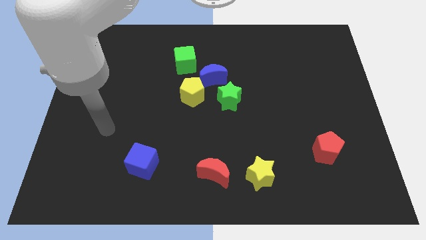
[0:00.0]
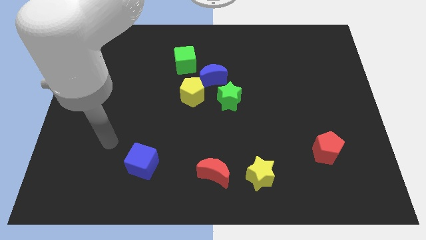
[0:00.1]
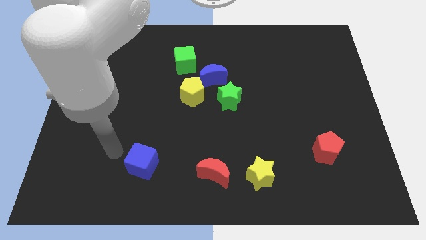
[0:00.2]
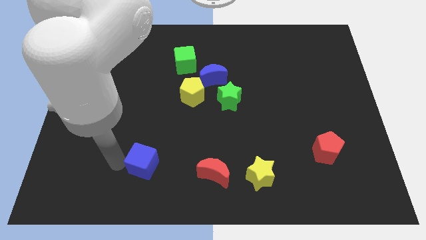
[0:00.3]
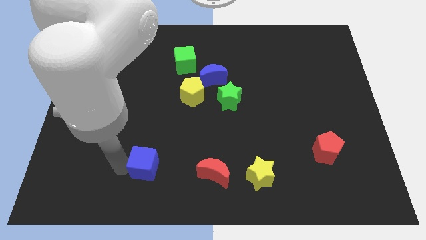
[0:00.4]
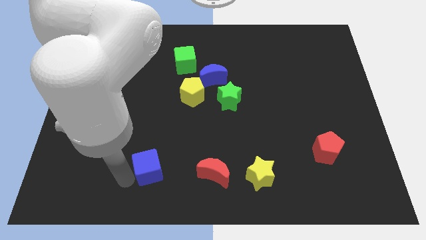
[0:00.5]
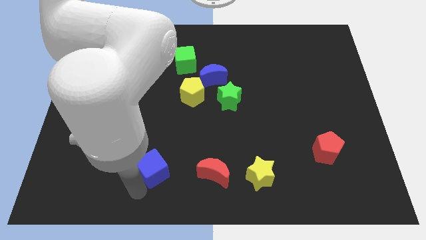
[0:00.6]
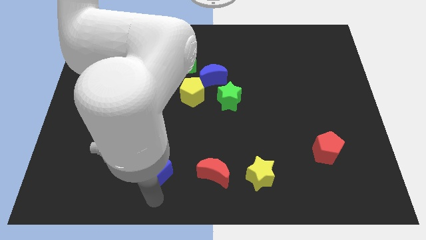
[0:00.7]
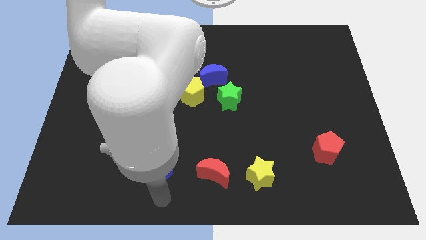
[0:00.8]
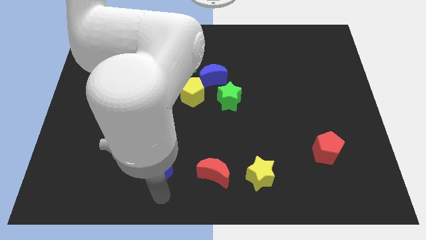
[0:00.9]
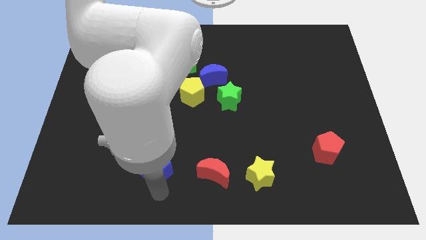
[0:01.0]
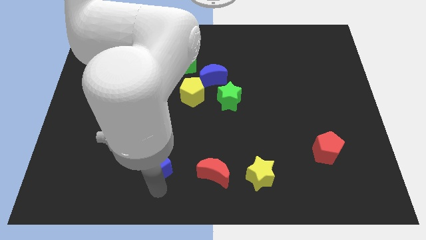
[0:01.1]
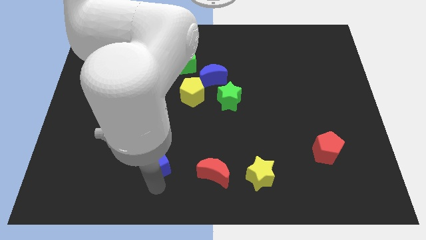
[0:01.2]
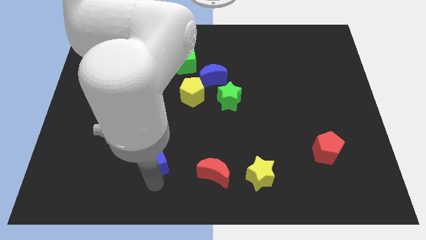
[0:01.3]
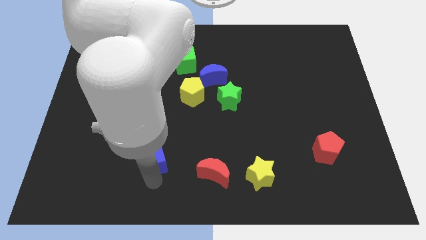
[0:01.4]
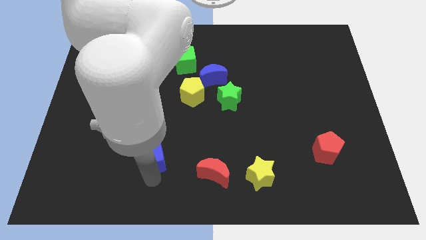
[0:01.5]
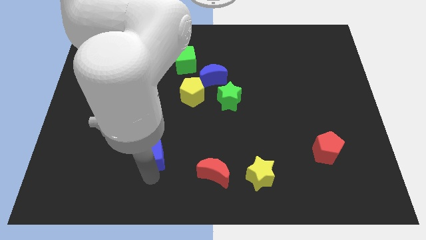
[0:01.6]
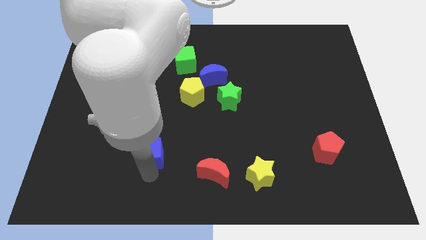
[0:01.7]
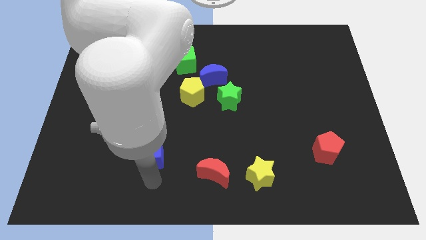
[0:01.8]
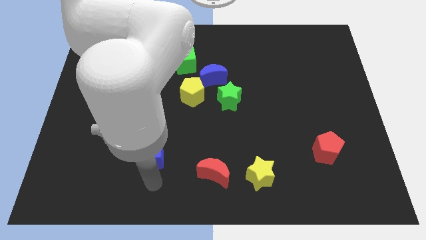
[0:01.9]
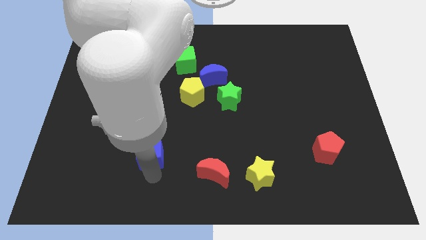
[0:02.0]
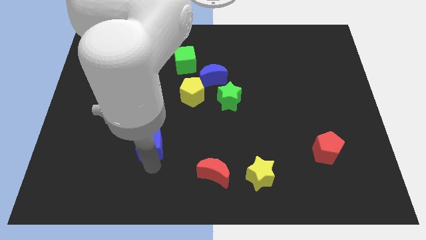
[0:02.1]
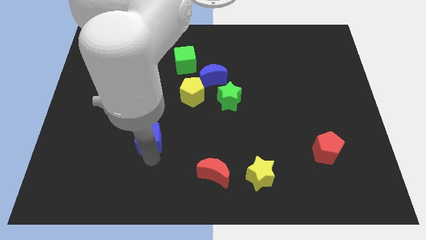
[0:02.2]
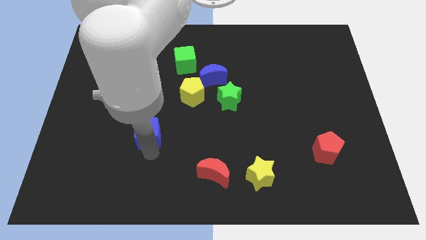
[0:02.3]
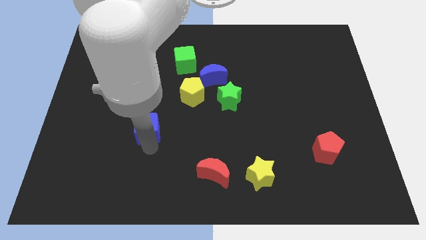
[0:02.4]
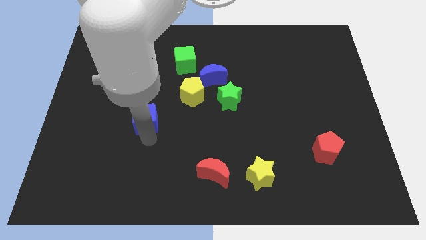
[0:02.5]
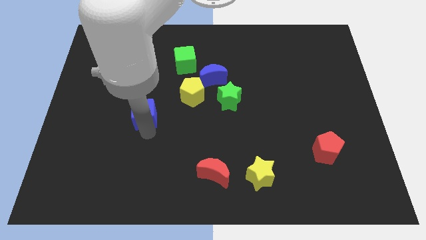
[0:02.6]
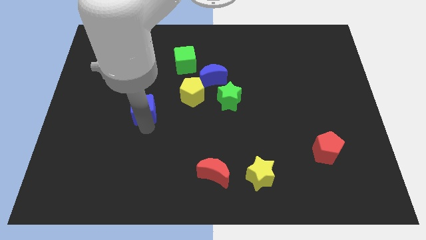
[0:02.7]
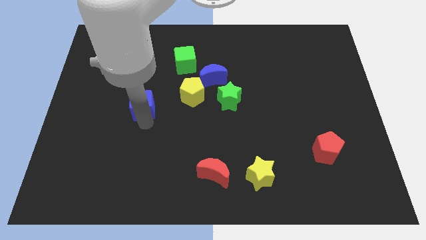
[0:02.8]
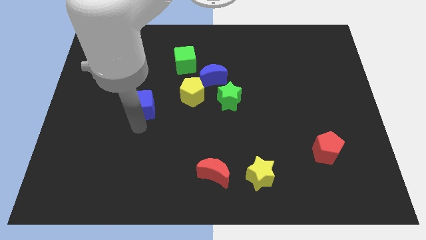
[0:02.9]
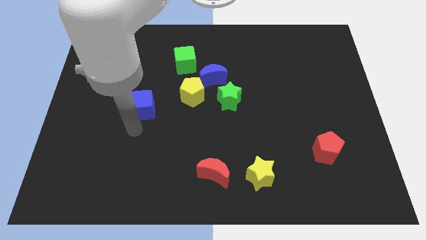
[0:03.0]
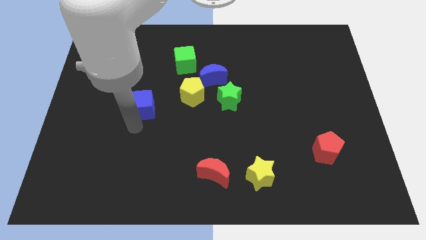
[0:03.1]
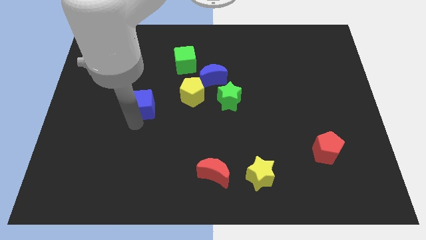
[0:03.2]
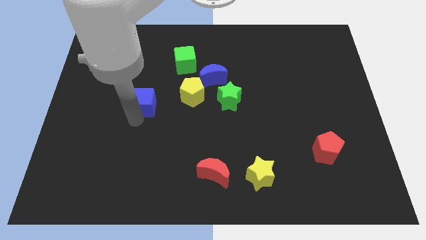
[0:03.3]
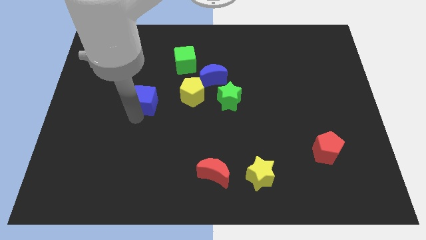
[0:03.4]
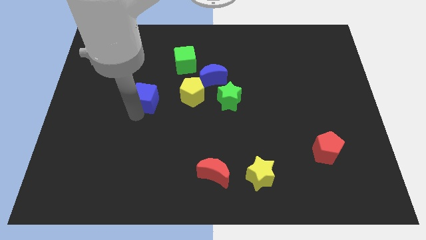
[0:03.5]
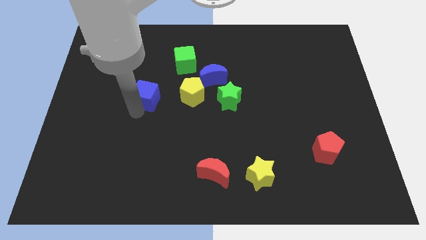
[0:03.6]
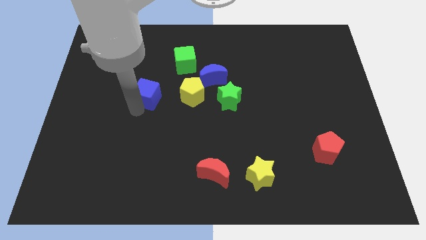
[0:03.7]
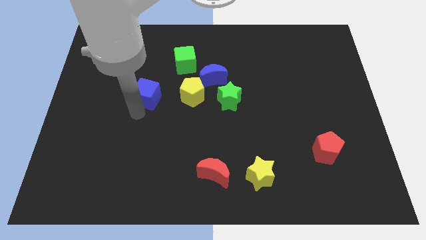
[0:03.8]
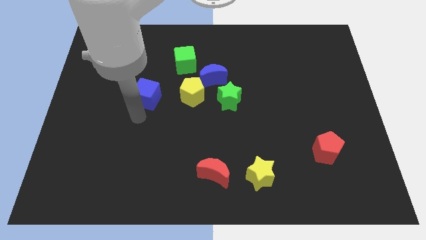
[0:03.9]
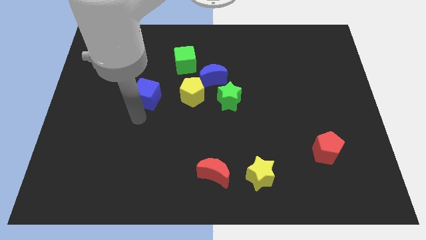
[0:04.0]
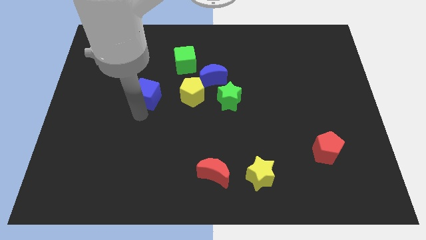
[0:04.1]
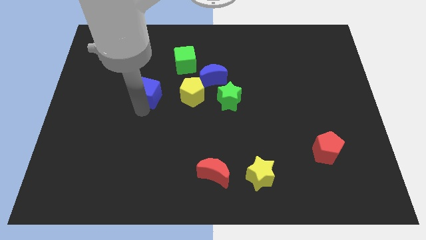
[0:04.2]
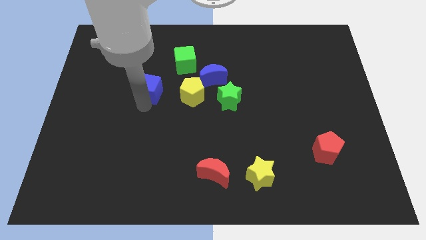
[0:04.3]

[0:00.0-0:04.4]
move the blue cube upwards

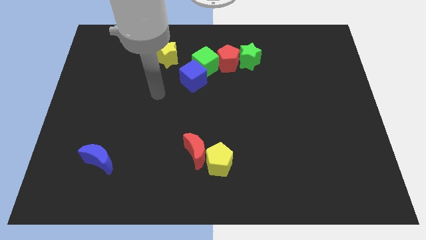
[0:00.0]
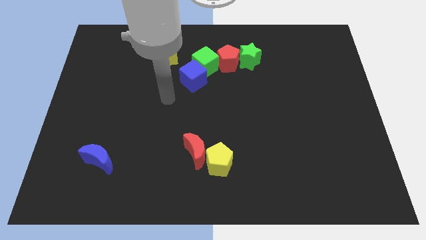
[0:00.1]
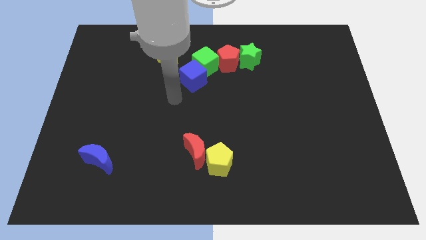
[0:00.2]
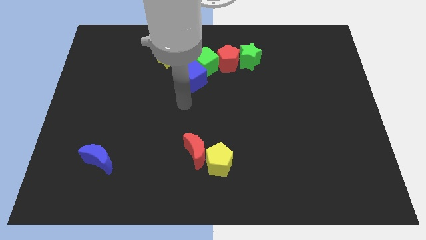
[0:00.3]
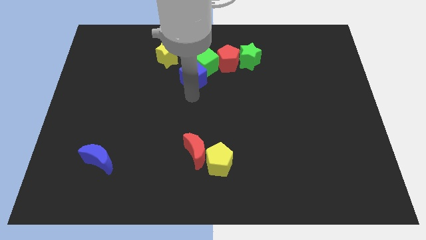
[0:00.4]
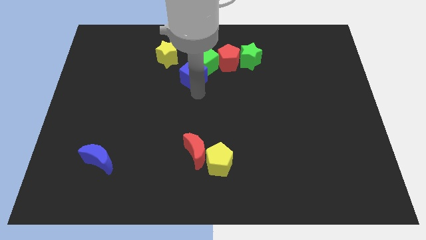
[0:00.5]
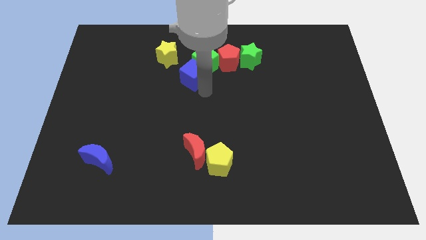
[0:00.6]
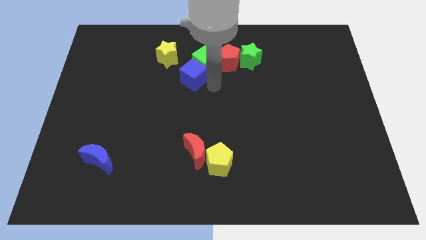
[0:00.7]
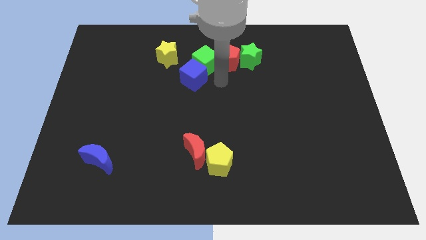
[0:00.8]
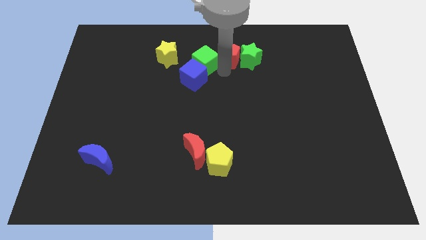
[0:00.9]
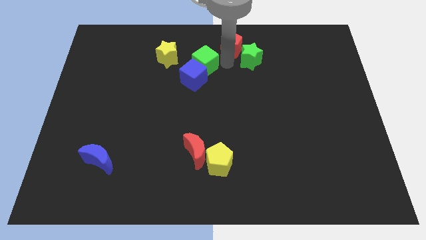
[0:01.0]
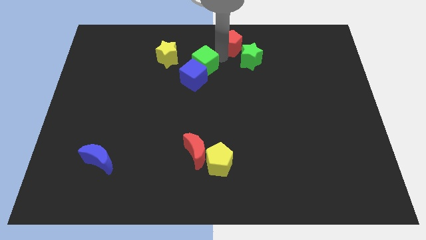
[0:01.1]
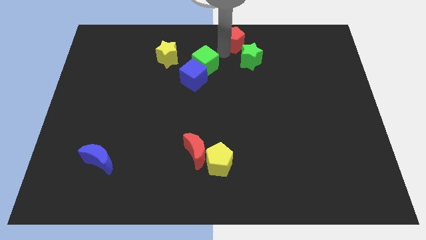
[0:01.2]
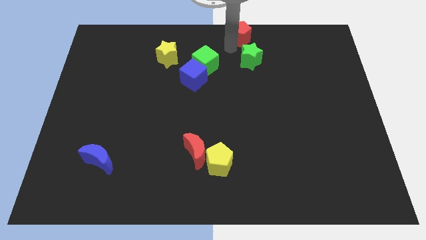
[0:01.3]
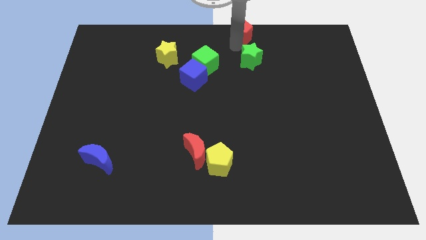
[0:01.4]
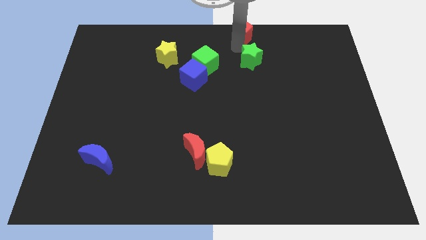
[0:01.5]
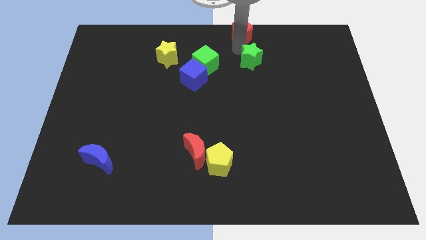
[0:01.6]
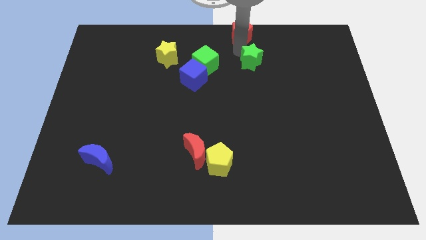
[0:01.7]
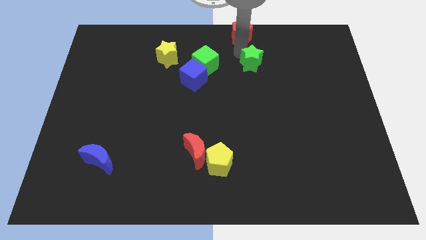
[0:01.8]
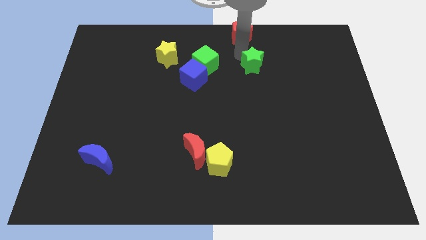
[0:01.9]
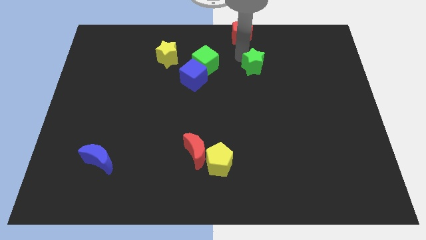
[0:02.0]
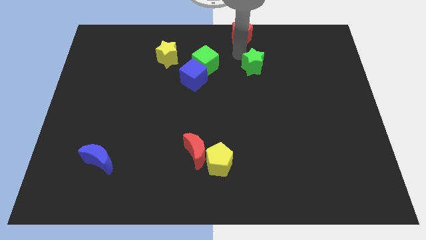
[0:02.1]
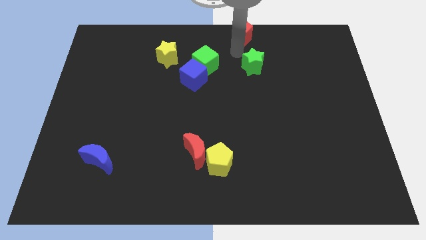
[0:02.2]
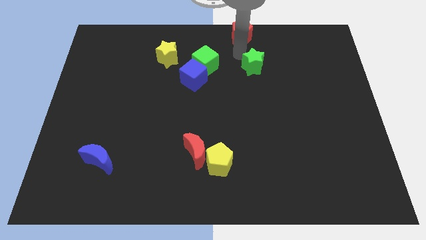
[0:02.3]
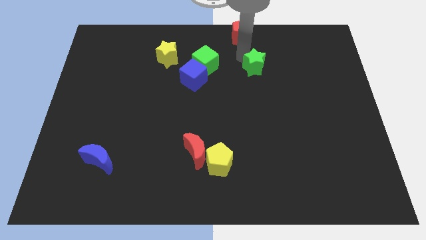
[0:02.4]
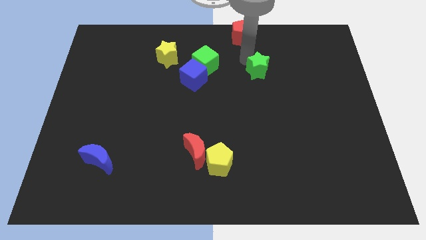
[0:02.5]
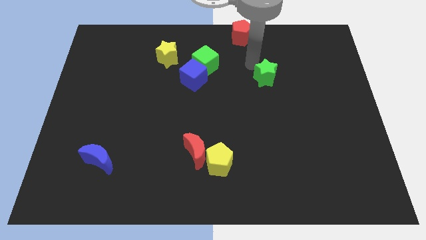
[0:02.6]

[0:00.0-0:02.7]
move the green star slightly downwards and to the right

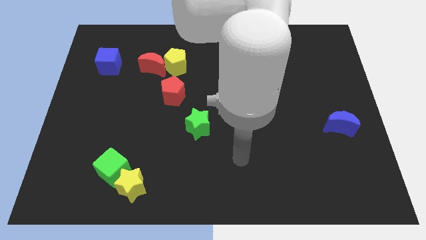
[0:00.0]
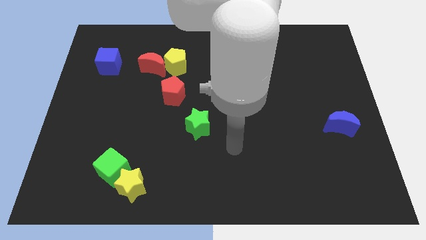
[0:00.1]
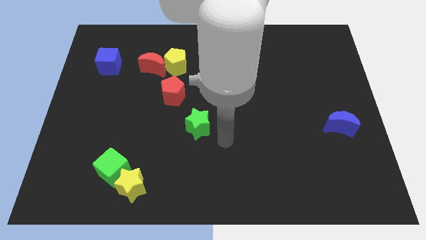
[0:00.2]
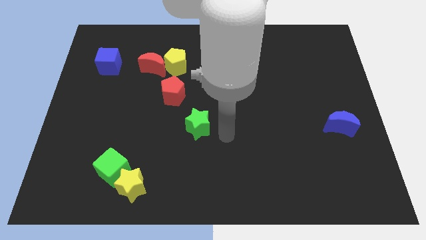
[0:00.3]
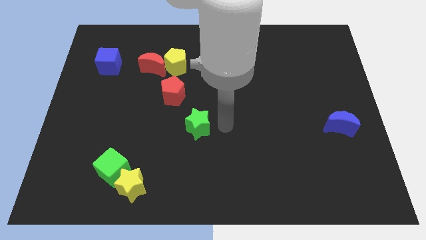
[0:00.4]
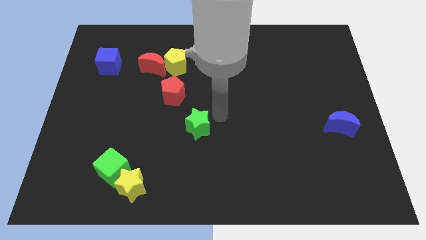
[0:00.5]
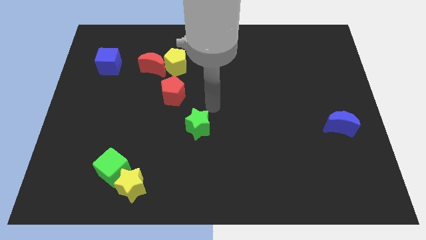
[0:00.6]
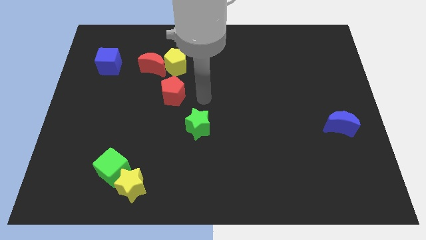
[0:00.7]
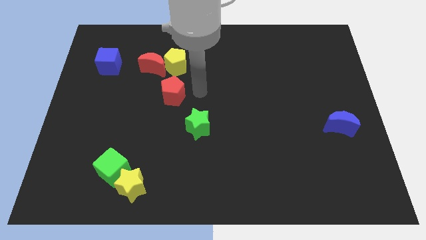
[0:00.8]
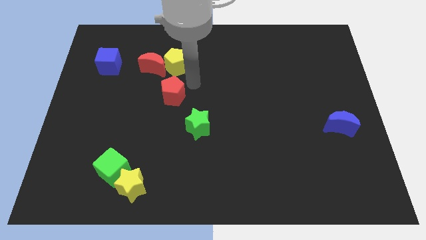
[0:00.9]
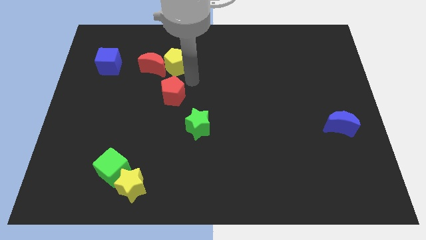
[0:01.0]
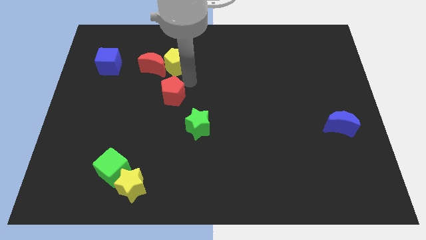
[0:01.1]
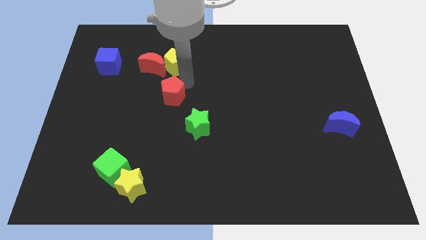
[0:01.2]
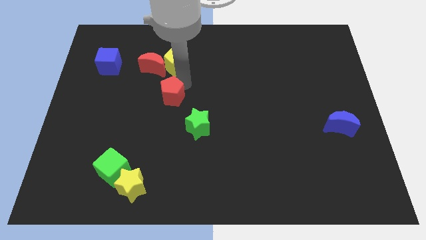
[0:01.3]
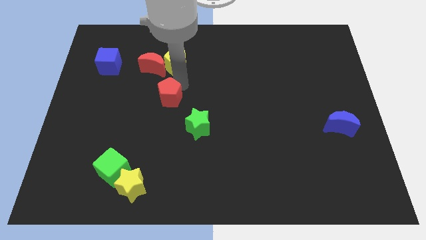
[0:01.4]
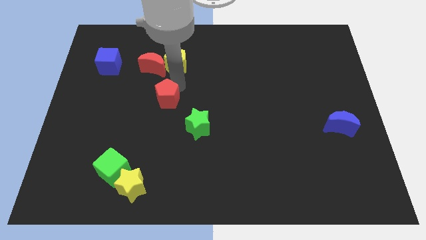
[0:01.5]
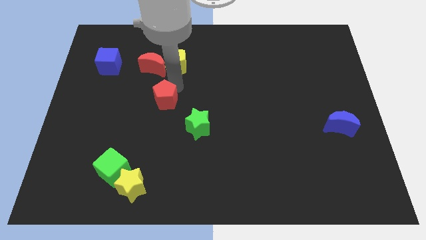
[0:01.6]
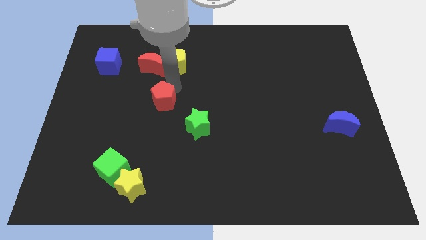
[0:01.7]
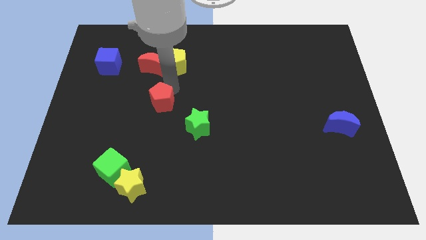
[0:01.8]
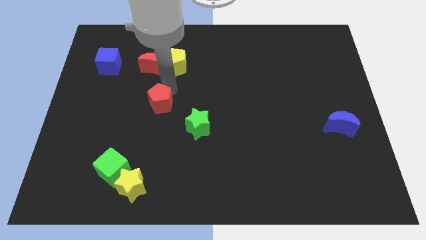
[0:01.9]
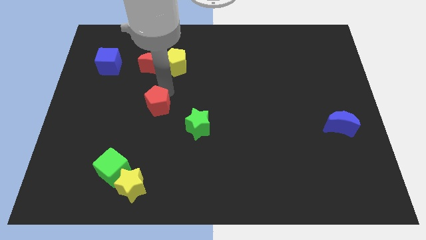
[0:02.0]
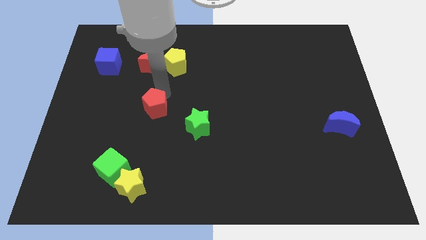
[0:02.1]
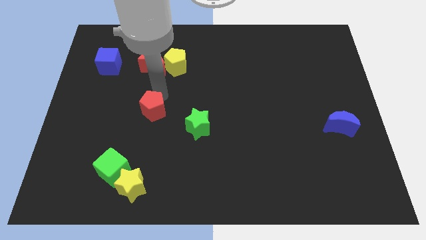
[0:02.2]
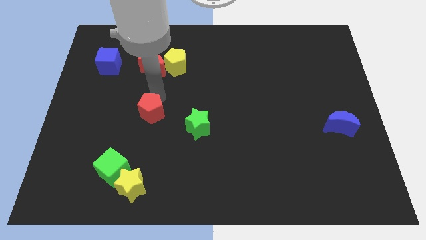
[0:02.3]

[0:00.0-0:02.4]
slide the red pentagon a bit diagonally down and left
